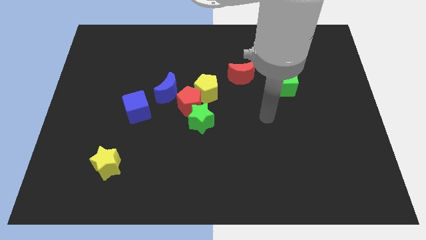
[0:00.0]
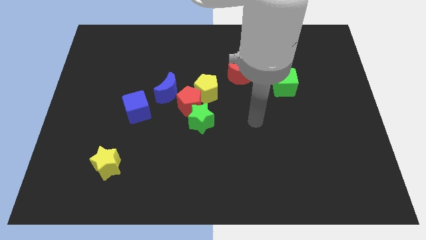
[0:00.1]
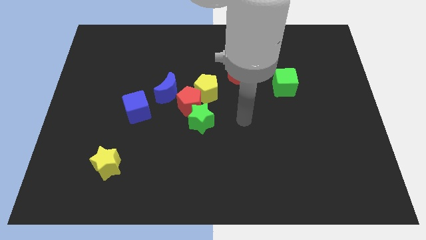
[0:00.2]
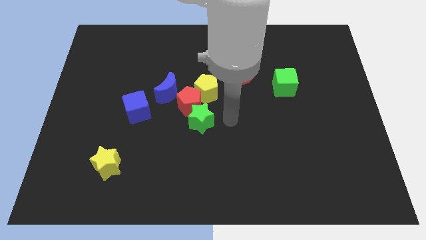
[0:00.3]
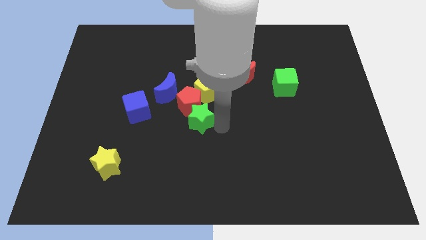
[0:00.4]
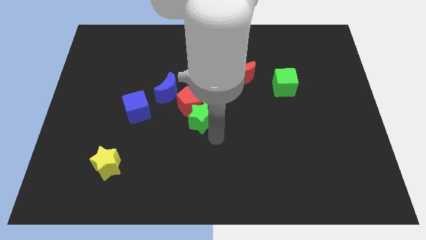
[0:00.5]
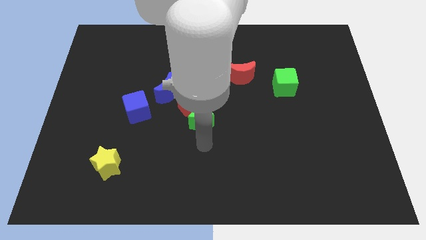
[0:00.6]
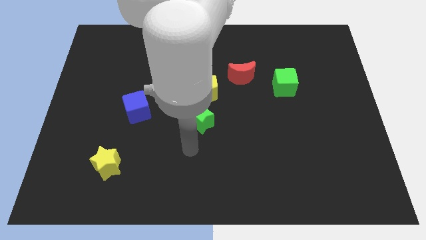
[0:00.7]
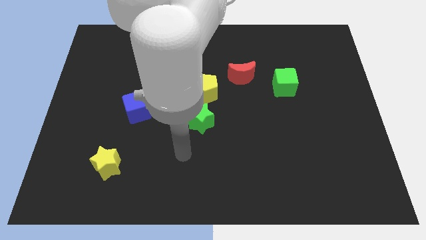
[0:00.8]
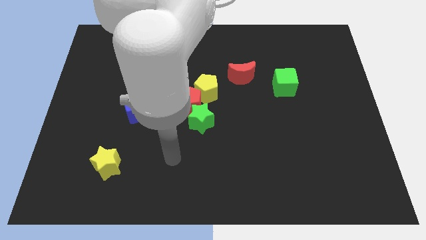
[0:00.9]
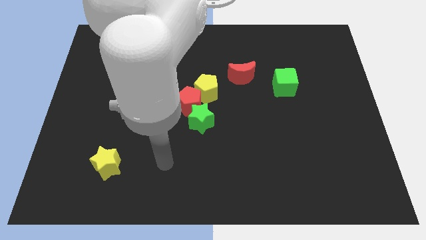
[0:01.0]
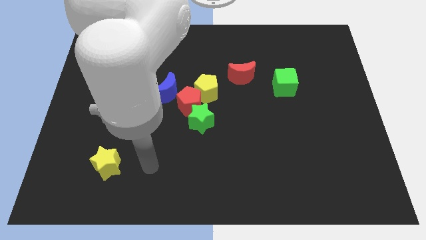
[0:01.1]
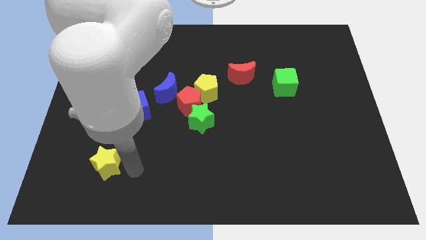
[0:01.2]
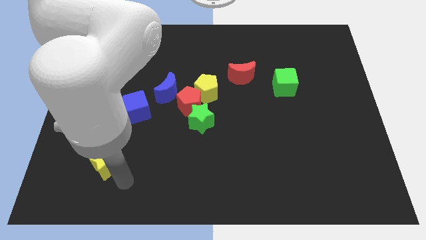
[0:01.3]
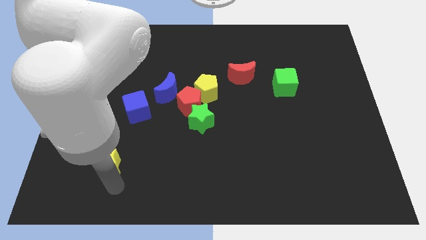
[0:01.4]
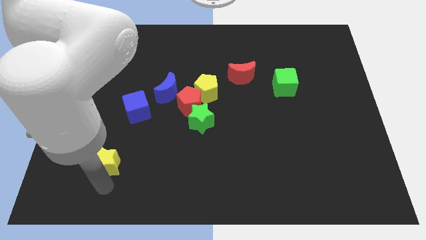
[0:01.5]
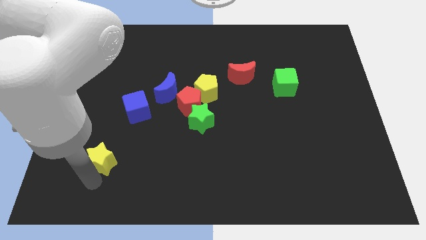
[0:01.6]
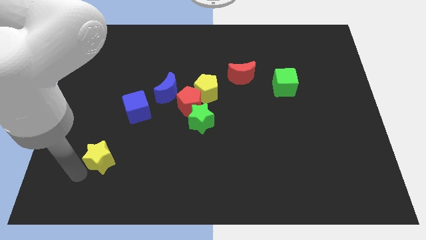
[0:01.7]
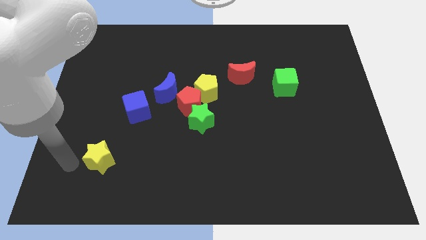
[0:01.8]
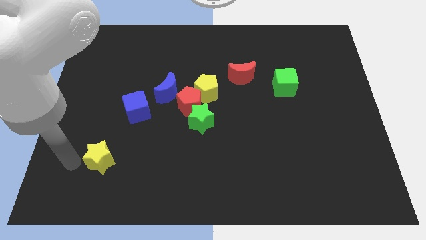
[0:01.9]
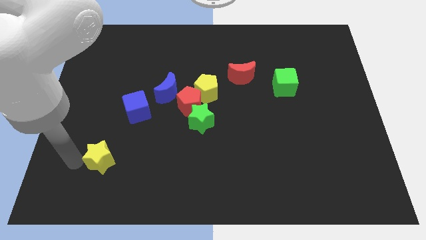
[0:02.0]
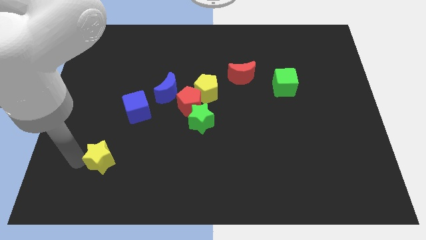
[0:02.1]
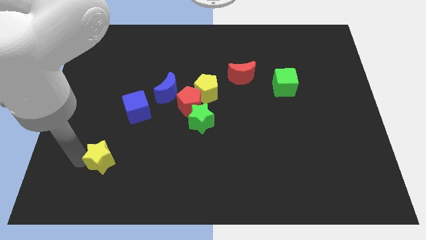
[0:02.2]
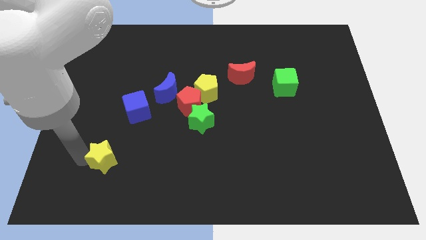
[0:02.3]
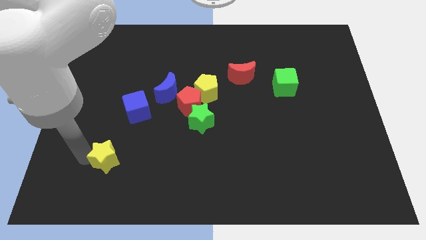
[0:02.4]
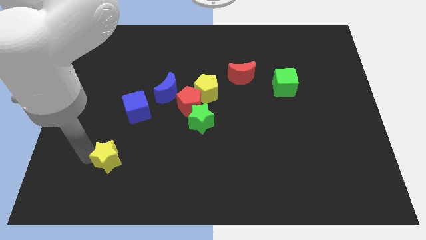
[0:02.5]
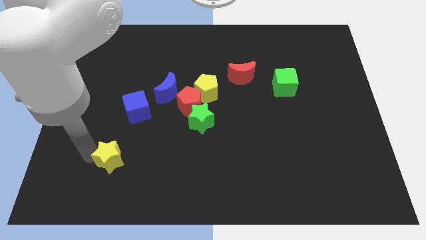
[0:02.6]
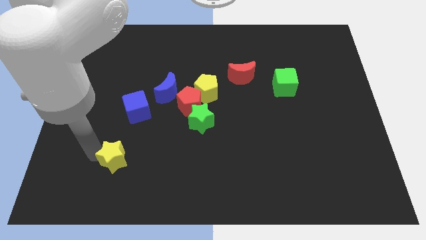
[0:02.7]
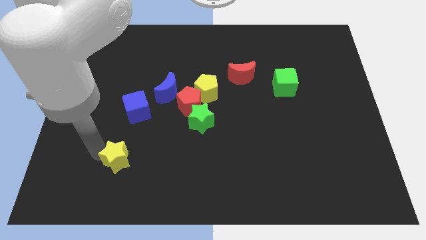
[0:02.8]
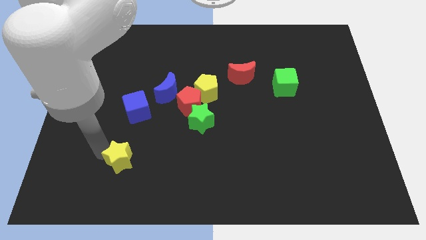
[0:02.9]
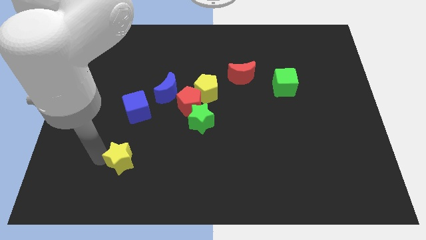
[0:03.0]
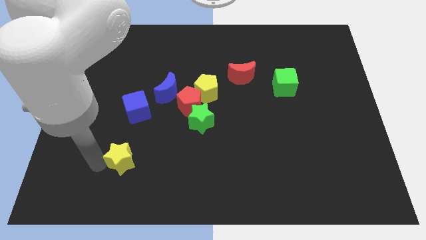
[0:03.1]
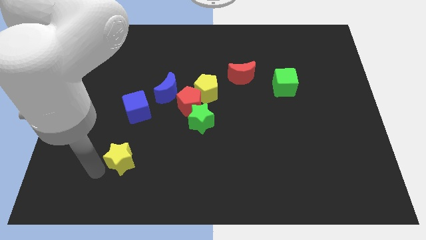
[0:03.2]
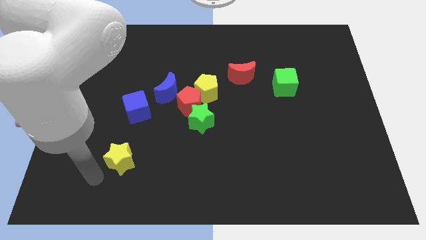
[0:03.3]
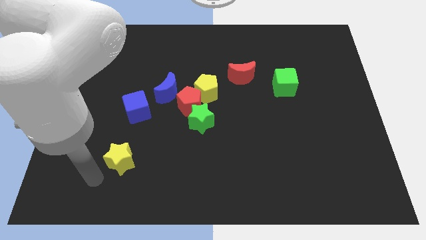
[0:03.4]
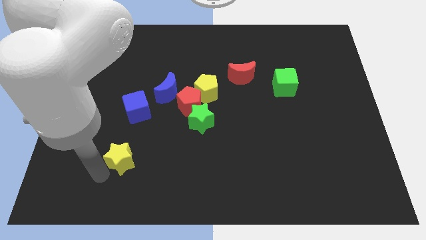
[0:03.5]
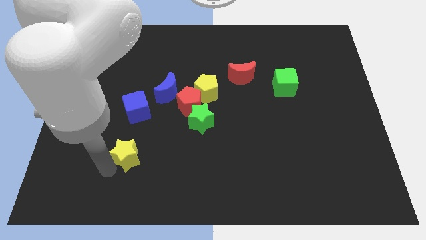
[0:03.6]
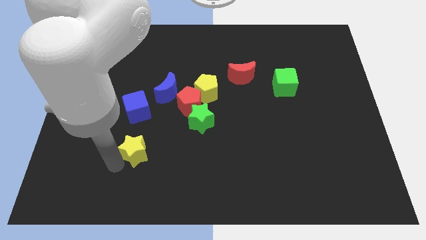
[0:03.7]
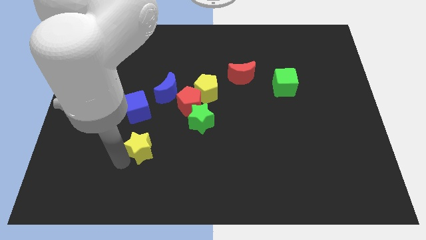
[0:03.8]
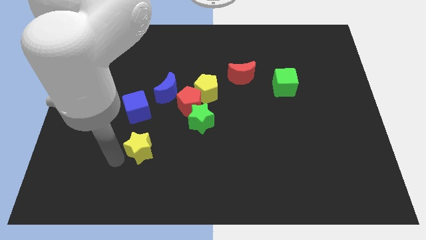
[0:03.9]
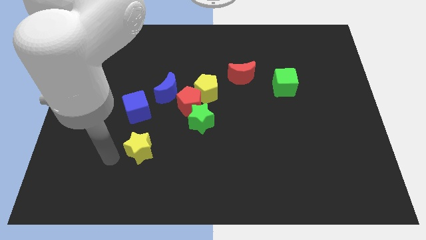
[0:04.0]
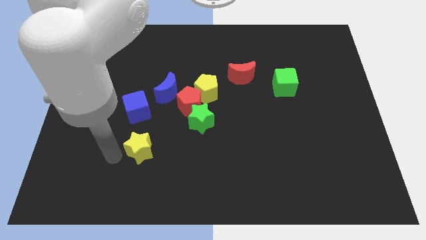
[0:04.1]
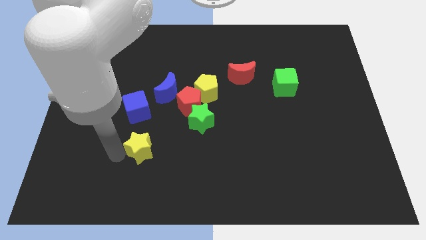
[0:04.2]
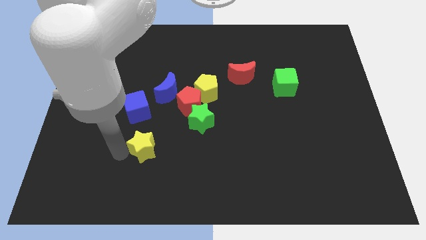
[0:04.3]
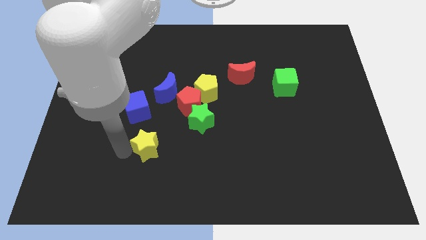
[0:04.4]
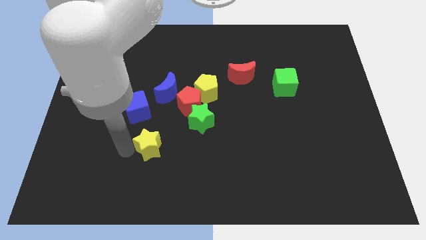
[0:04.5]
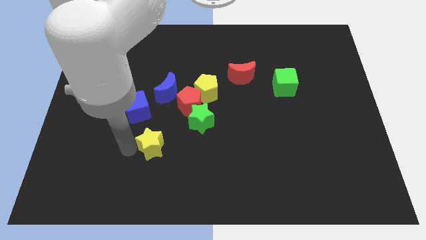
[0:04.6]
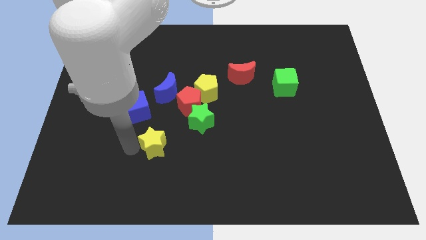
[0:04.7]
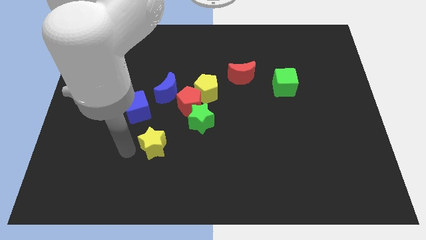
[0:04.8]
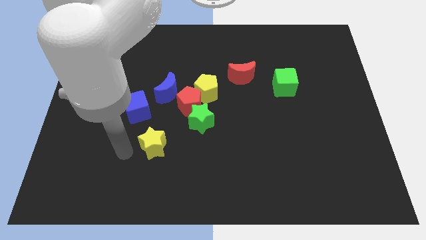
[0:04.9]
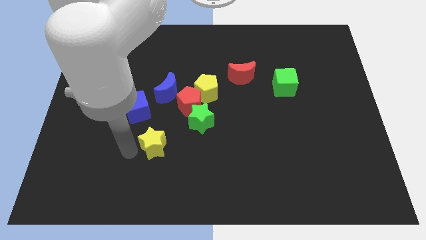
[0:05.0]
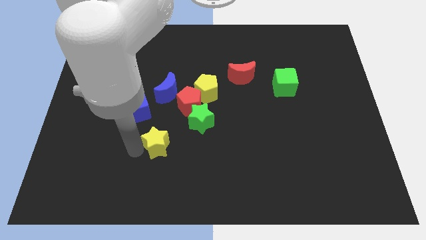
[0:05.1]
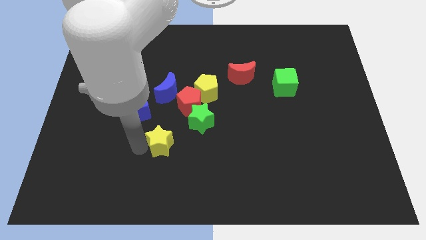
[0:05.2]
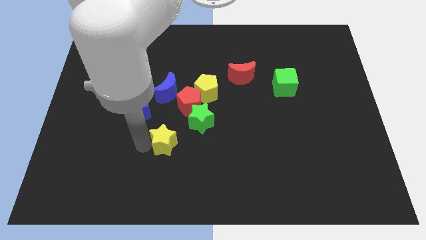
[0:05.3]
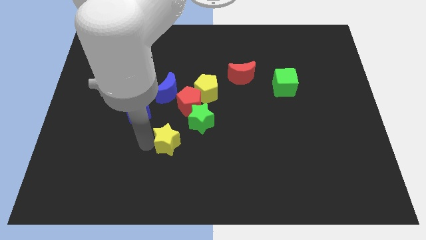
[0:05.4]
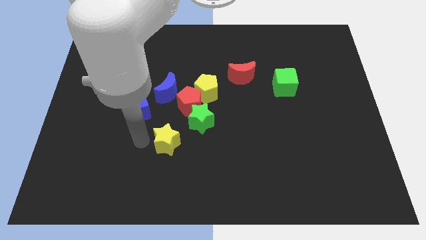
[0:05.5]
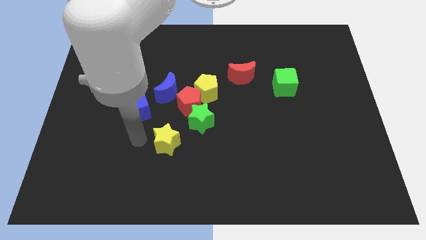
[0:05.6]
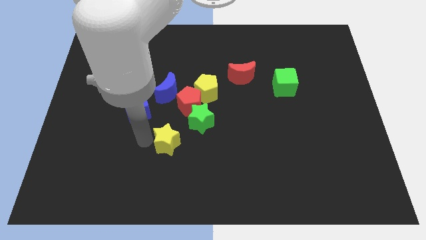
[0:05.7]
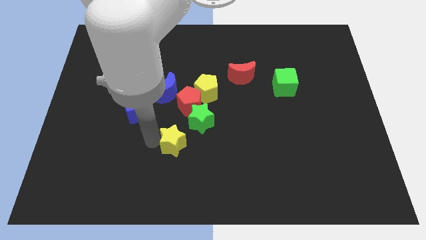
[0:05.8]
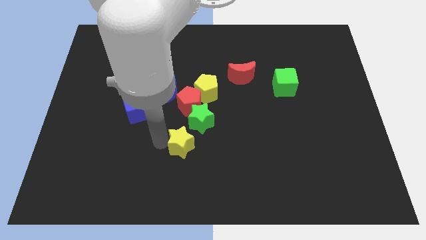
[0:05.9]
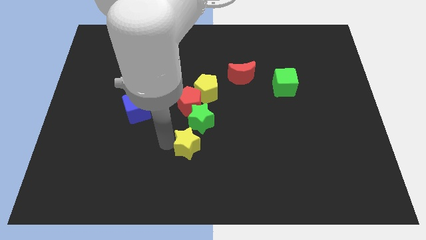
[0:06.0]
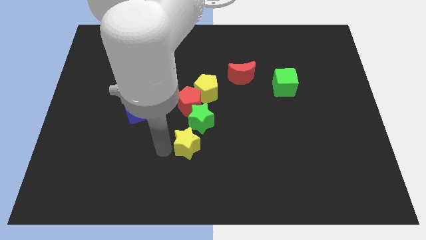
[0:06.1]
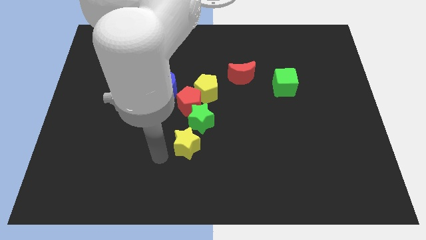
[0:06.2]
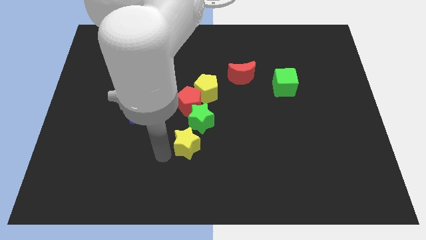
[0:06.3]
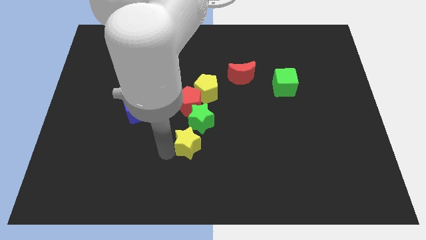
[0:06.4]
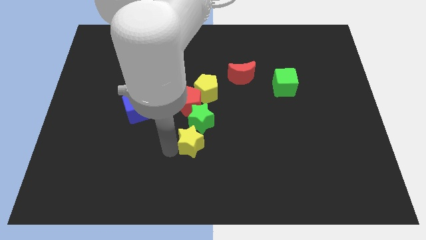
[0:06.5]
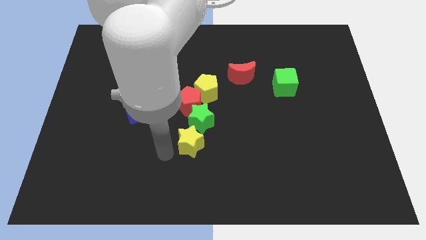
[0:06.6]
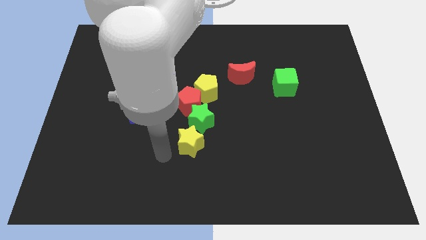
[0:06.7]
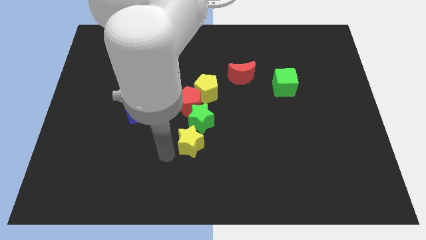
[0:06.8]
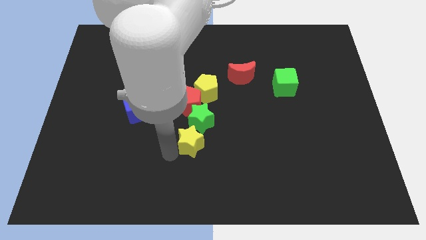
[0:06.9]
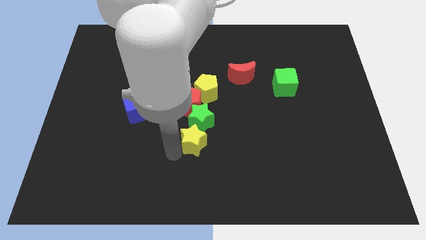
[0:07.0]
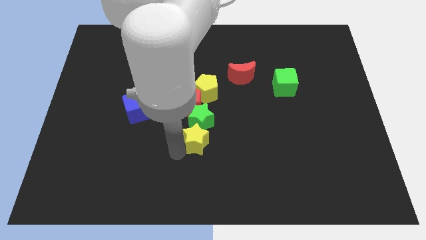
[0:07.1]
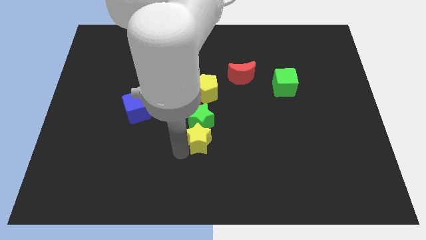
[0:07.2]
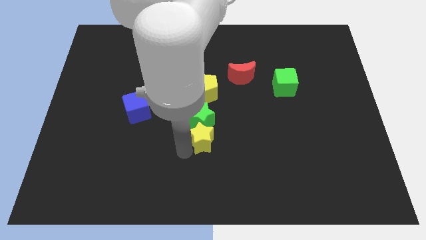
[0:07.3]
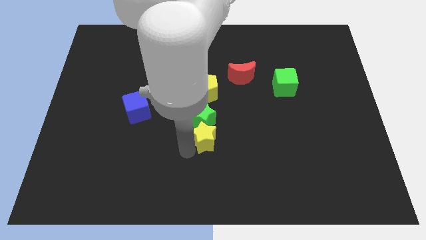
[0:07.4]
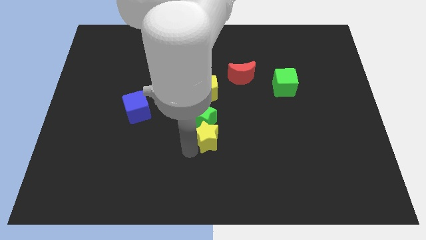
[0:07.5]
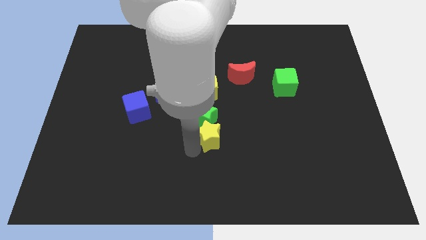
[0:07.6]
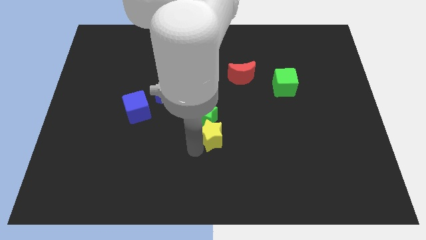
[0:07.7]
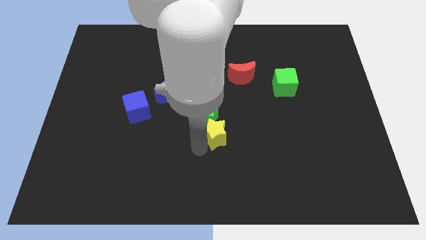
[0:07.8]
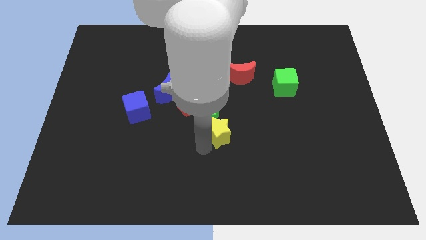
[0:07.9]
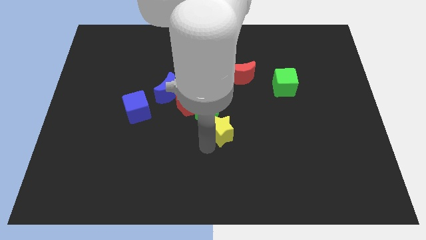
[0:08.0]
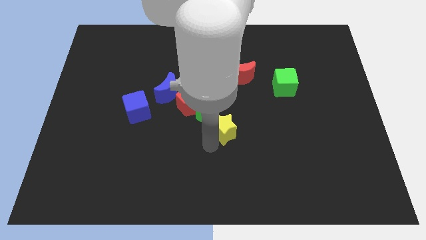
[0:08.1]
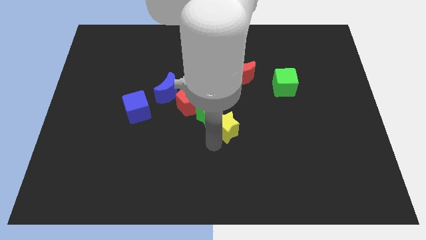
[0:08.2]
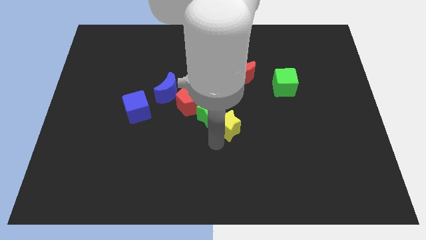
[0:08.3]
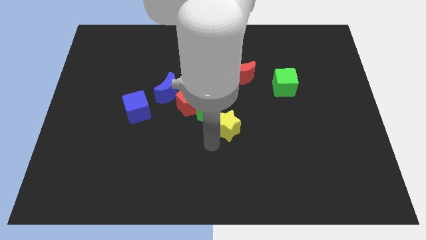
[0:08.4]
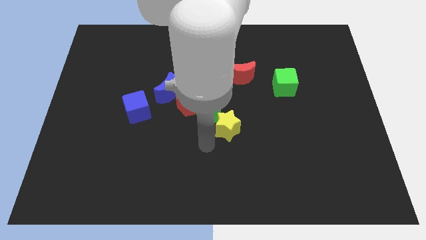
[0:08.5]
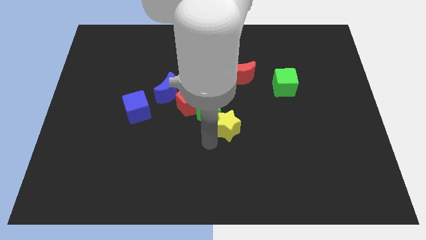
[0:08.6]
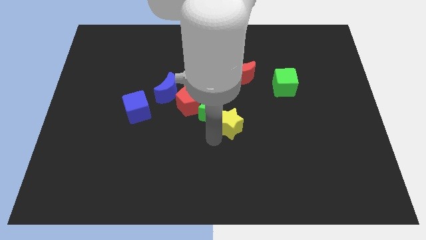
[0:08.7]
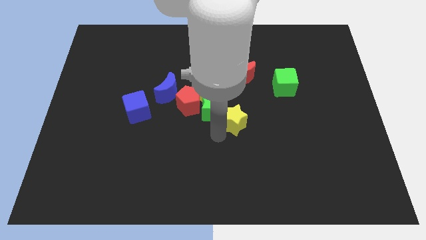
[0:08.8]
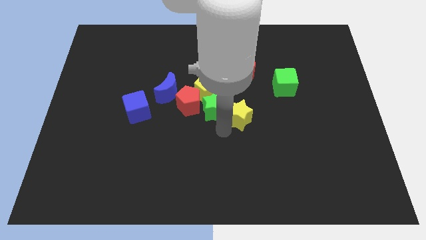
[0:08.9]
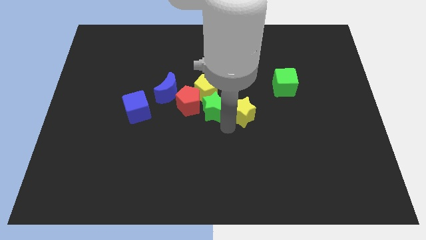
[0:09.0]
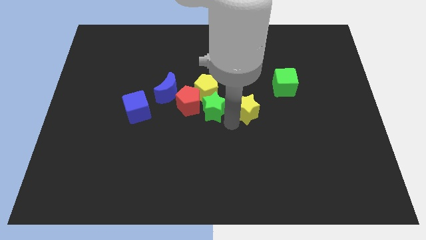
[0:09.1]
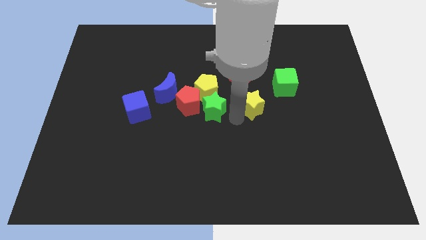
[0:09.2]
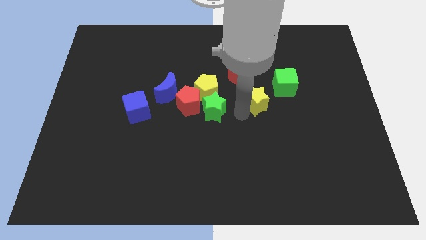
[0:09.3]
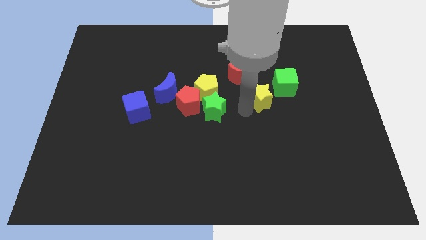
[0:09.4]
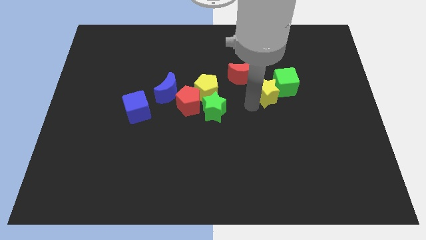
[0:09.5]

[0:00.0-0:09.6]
slide the yellow star close to the green cube
